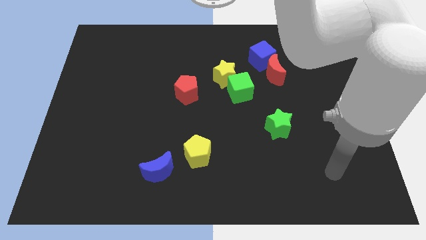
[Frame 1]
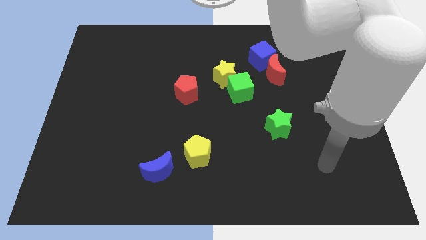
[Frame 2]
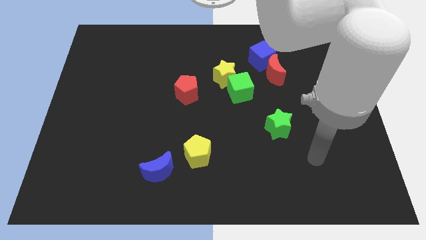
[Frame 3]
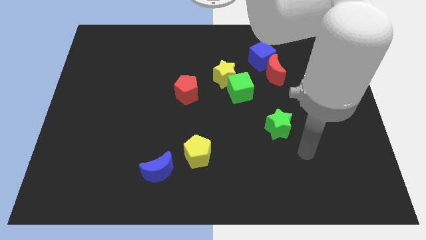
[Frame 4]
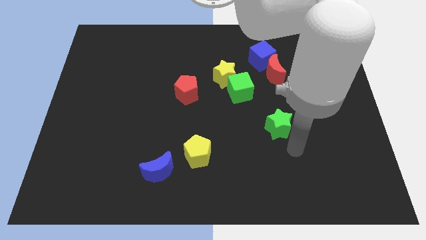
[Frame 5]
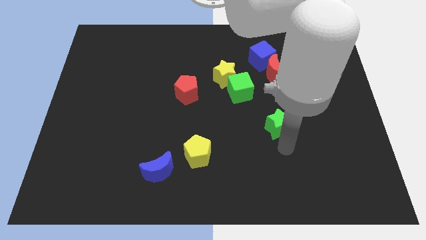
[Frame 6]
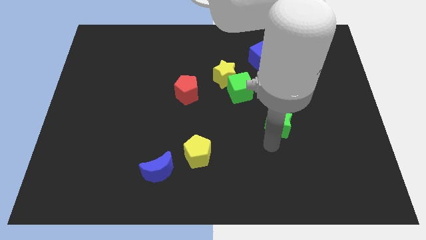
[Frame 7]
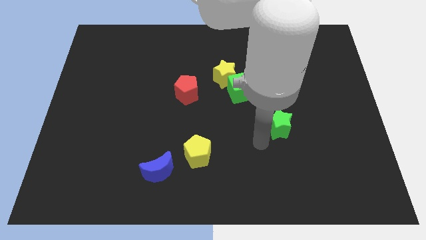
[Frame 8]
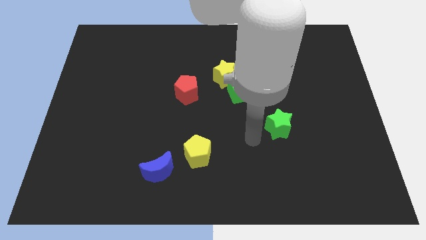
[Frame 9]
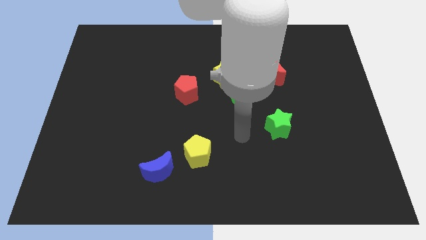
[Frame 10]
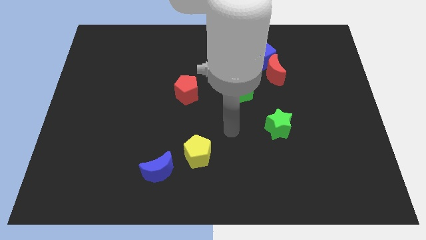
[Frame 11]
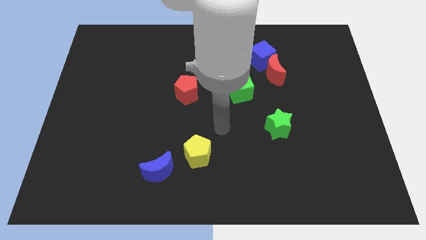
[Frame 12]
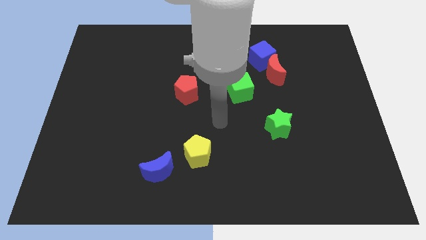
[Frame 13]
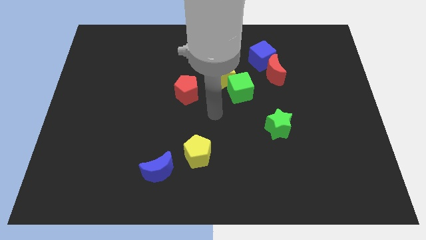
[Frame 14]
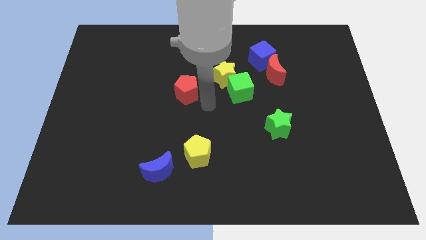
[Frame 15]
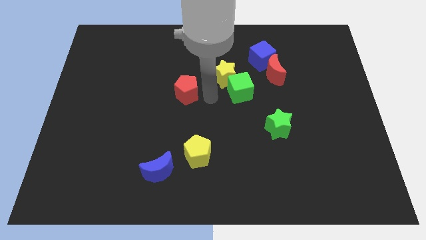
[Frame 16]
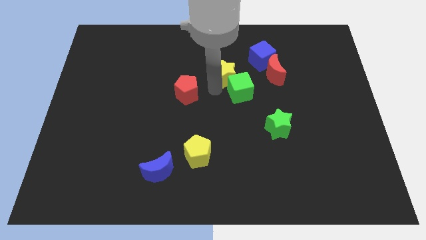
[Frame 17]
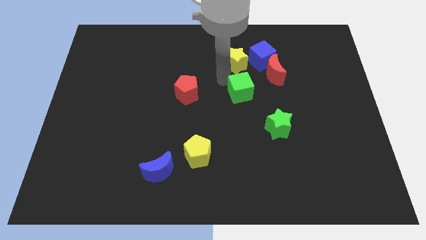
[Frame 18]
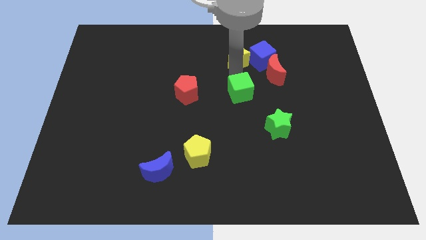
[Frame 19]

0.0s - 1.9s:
separate the green cube from the yellow star

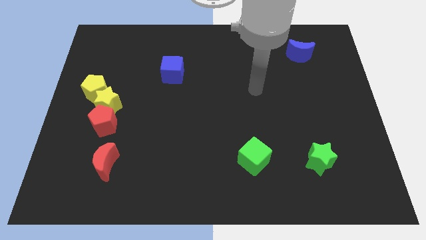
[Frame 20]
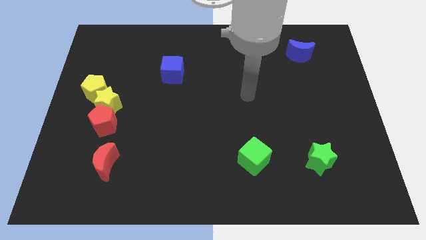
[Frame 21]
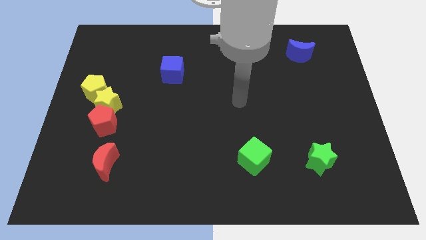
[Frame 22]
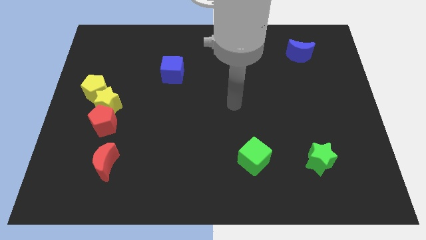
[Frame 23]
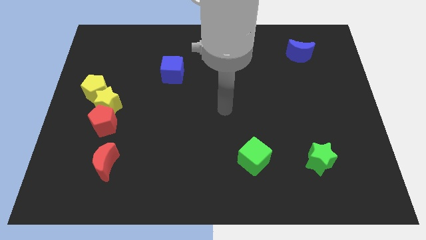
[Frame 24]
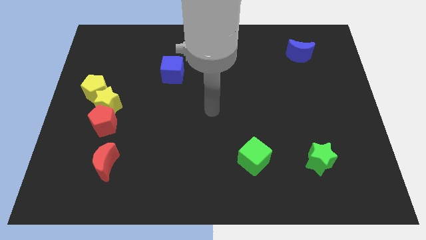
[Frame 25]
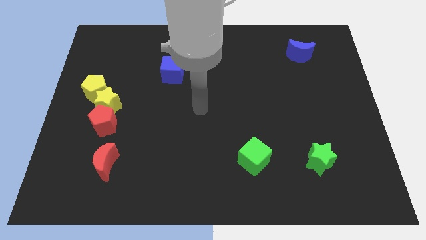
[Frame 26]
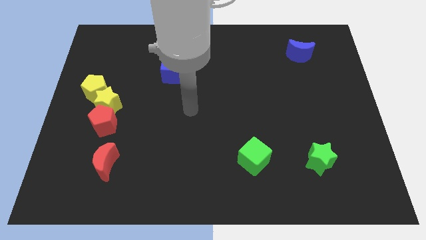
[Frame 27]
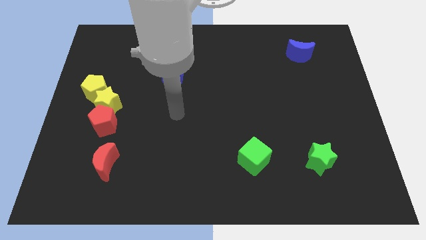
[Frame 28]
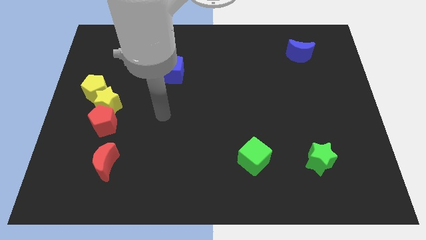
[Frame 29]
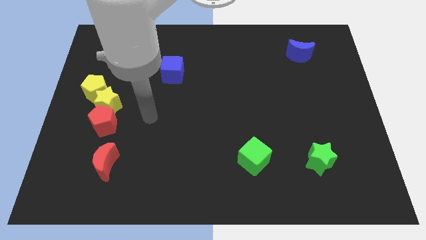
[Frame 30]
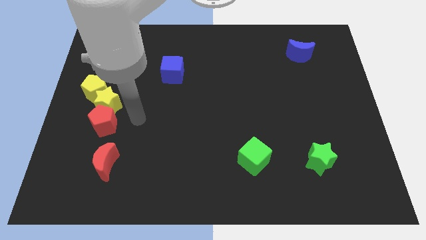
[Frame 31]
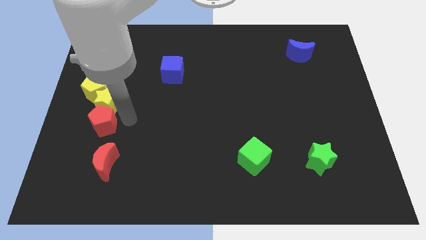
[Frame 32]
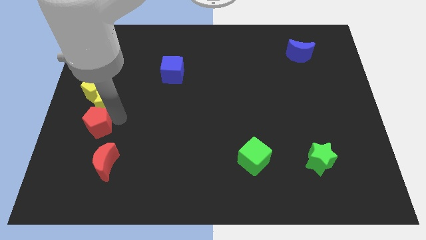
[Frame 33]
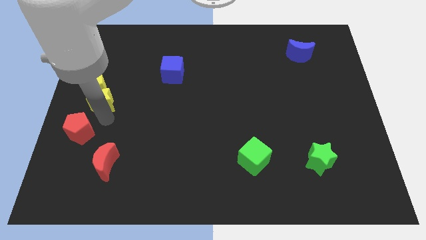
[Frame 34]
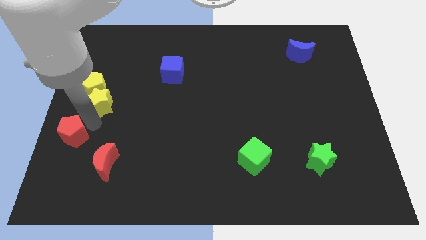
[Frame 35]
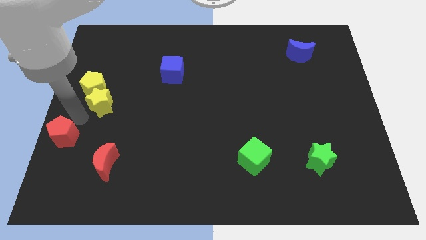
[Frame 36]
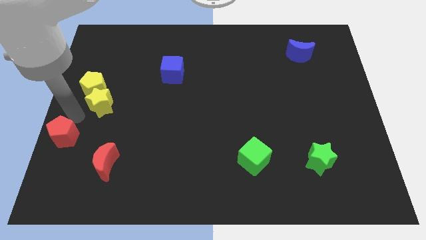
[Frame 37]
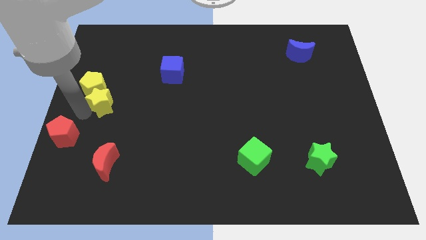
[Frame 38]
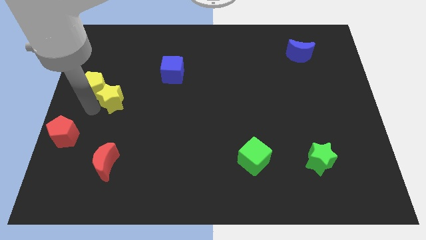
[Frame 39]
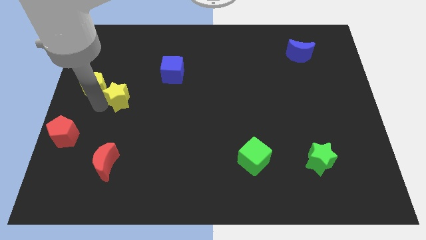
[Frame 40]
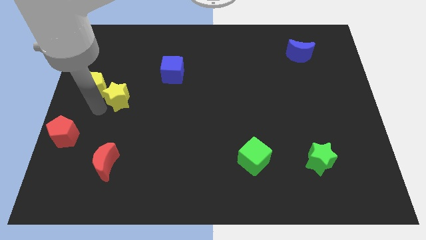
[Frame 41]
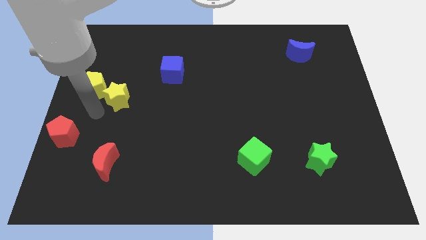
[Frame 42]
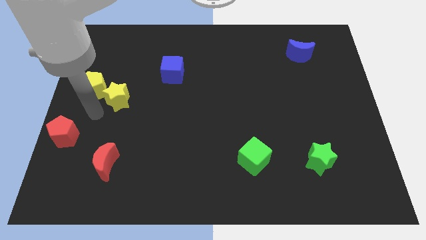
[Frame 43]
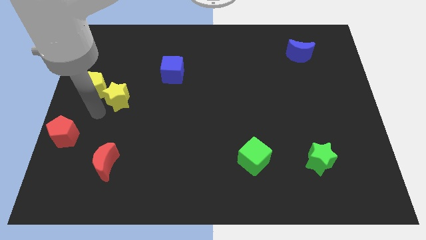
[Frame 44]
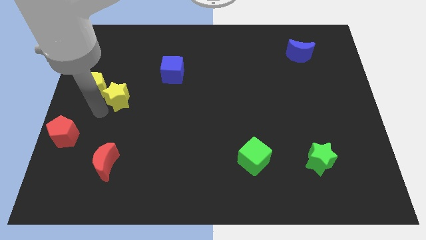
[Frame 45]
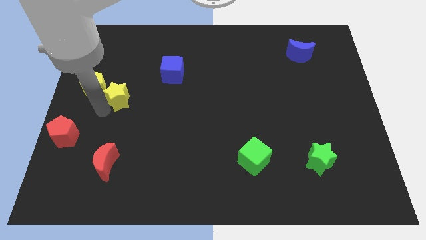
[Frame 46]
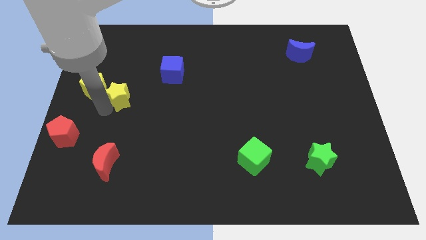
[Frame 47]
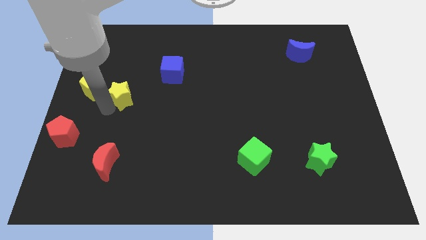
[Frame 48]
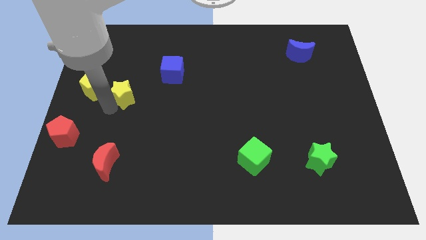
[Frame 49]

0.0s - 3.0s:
move the yellow star away from the yellow pentagon and red pentagon

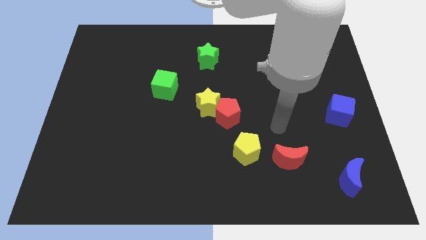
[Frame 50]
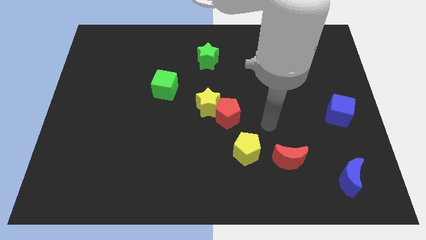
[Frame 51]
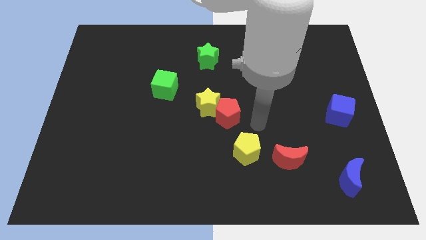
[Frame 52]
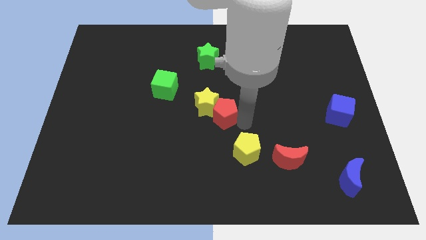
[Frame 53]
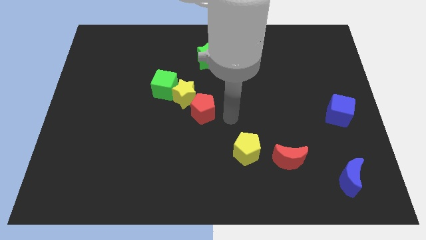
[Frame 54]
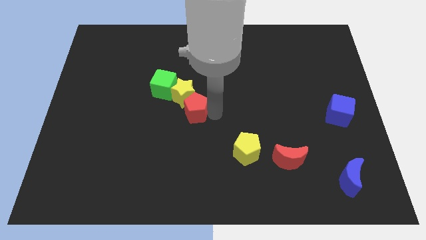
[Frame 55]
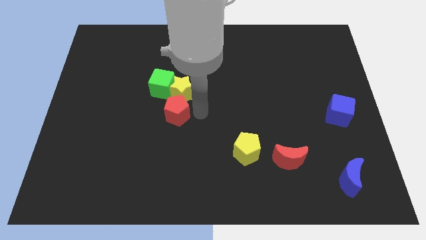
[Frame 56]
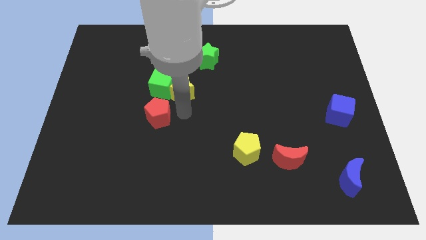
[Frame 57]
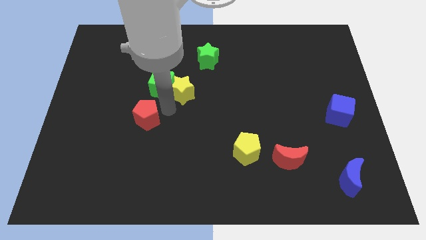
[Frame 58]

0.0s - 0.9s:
move the yellow star away from the red pentagon

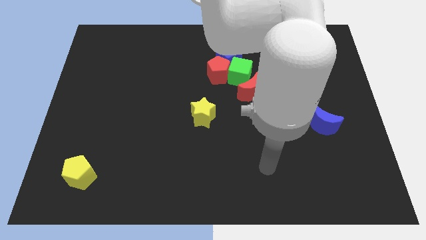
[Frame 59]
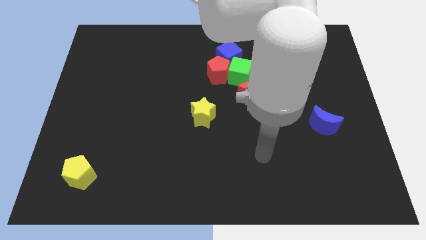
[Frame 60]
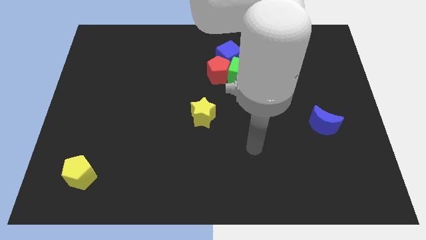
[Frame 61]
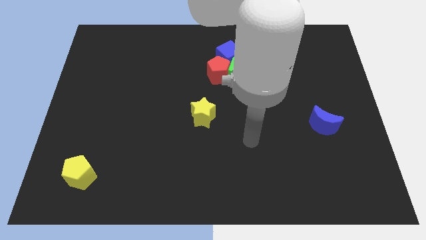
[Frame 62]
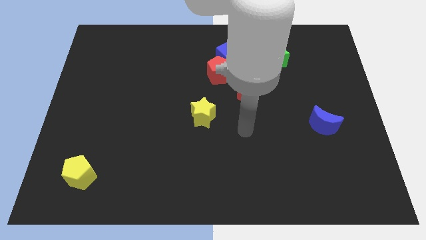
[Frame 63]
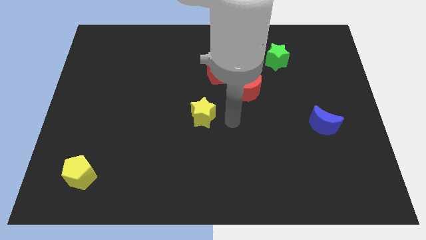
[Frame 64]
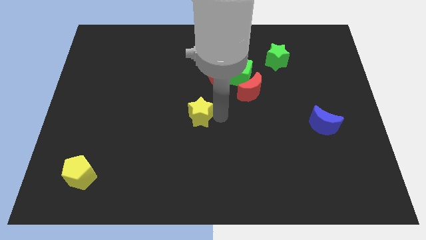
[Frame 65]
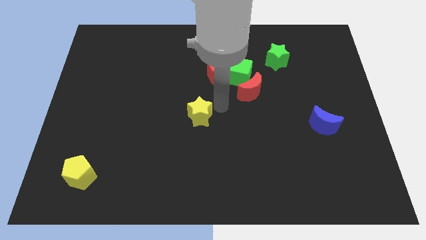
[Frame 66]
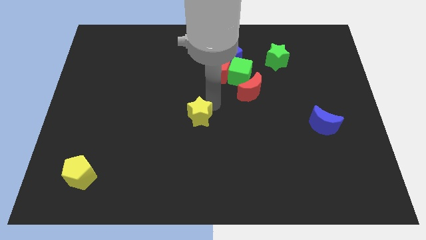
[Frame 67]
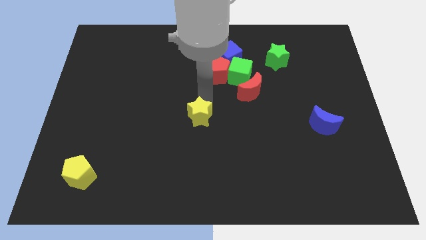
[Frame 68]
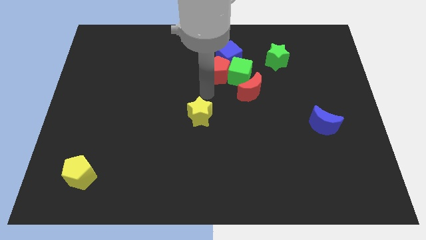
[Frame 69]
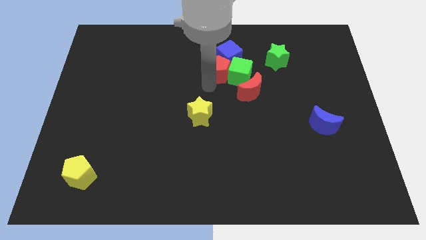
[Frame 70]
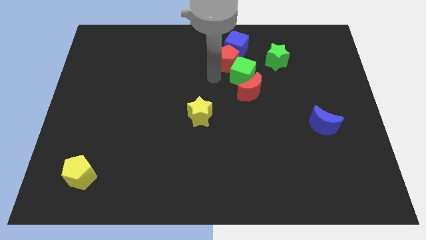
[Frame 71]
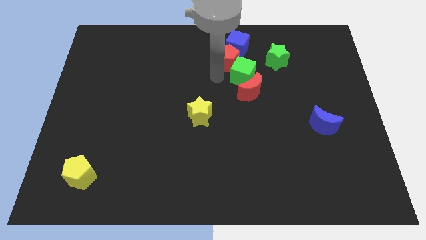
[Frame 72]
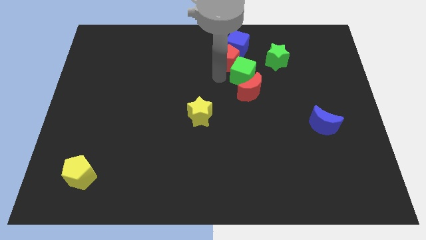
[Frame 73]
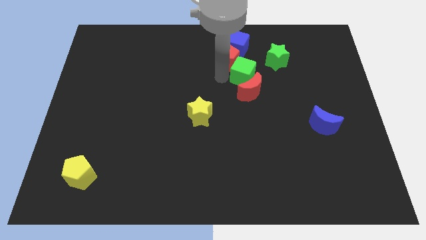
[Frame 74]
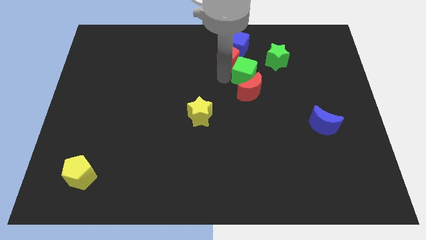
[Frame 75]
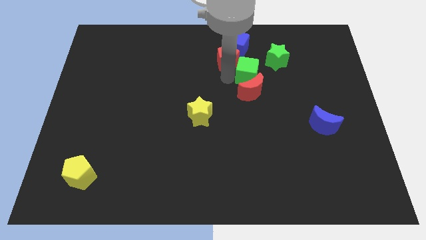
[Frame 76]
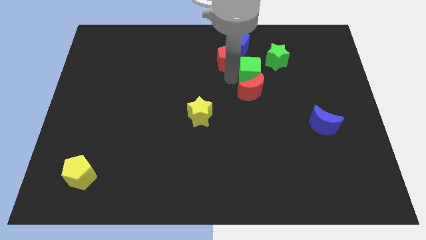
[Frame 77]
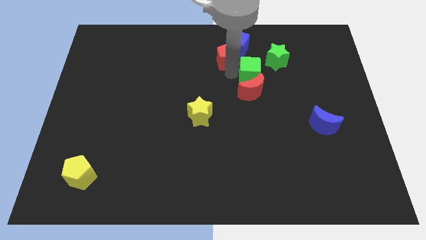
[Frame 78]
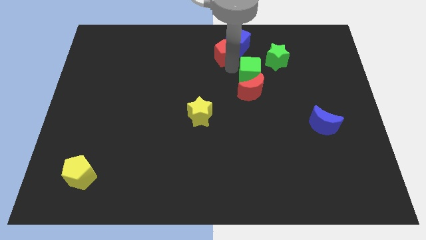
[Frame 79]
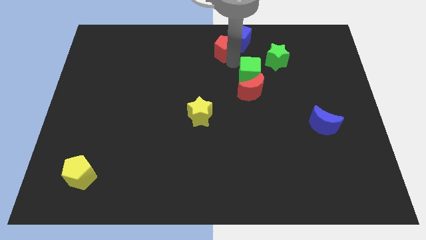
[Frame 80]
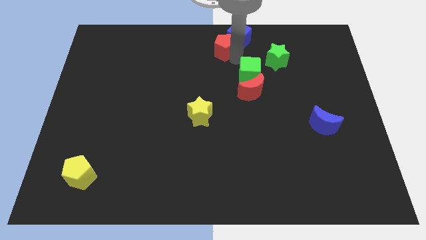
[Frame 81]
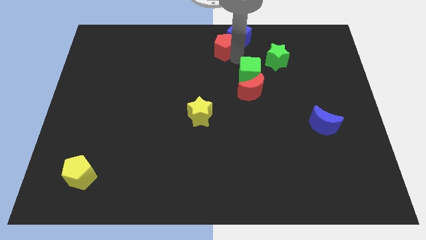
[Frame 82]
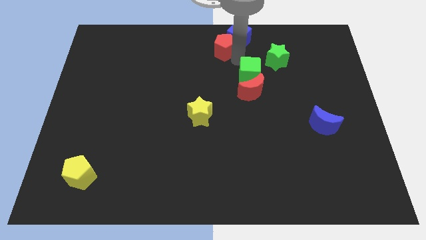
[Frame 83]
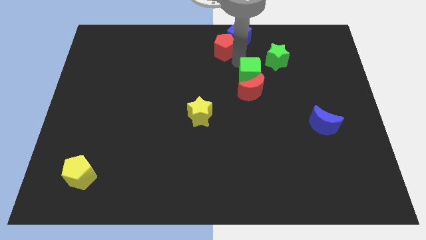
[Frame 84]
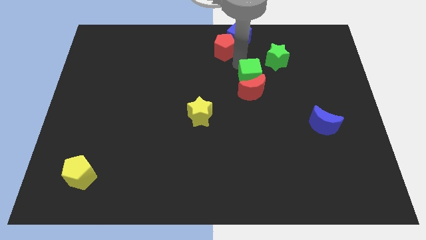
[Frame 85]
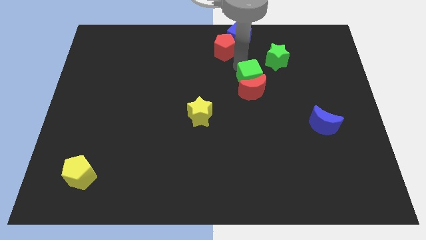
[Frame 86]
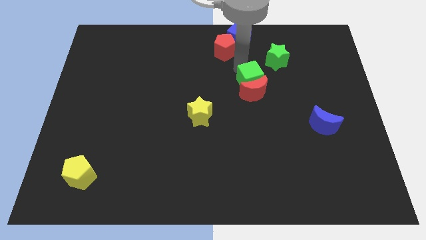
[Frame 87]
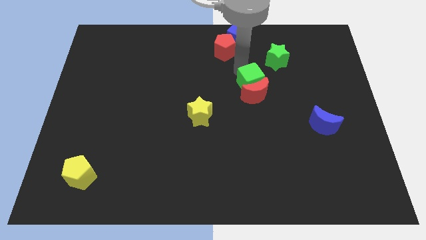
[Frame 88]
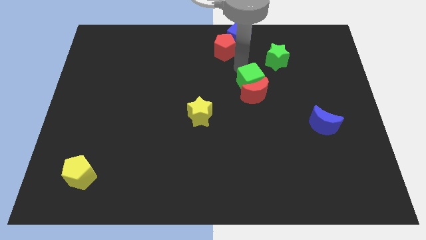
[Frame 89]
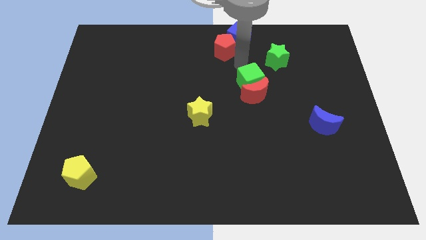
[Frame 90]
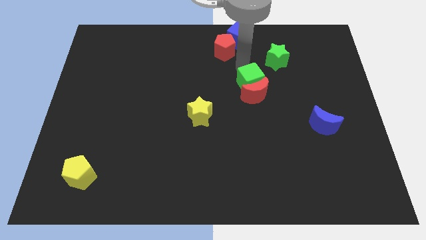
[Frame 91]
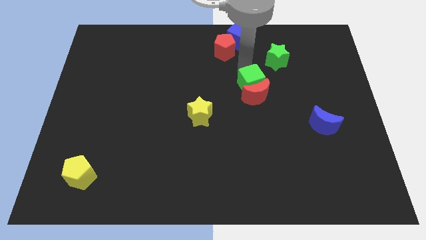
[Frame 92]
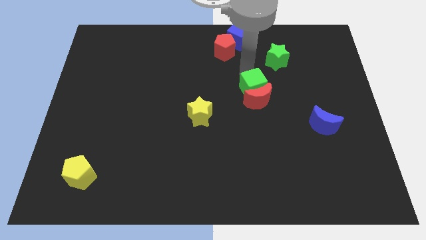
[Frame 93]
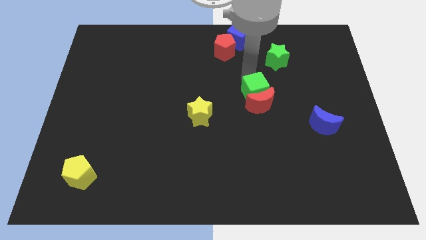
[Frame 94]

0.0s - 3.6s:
pull the green cube apart from the red pentagon, red moon, and blue cube
